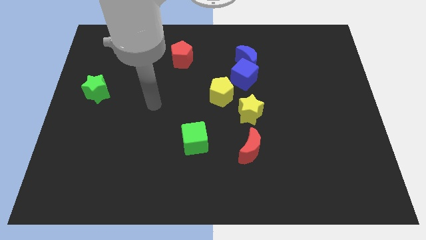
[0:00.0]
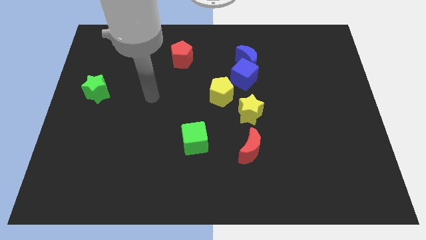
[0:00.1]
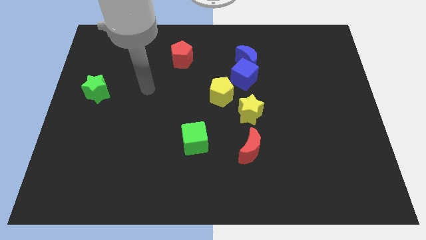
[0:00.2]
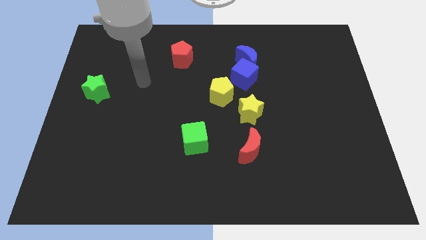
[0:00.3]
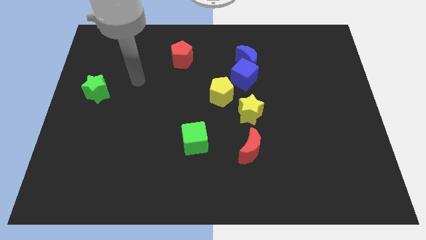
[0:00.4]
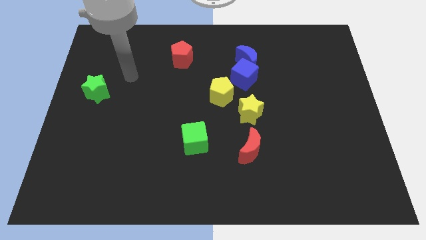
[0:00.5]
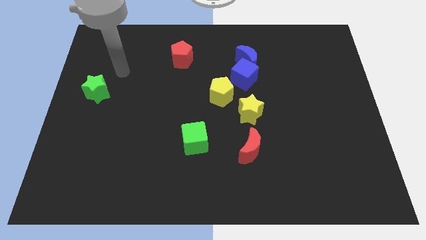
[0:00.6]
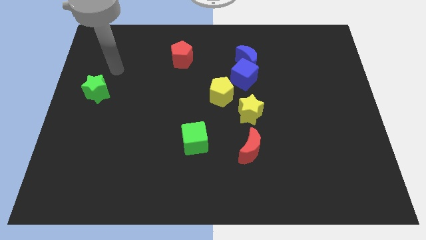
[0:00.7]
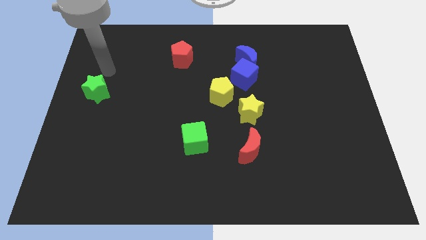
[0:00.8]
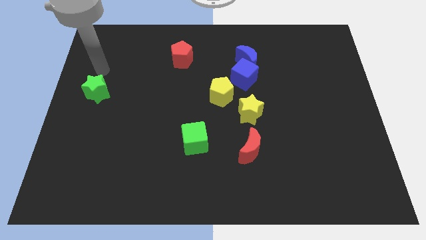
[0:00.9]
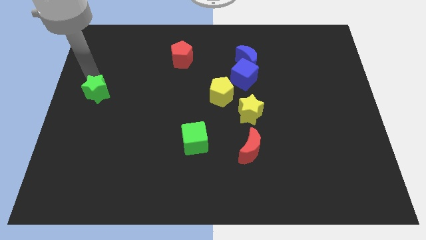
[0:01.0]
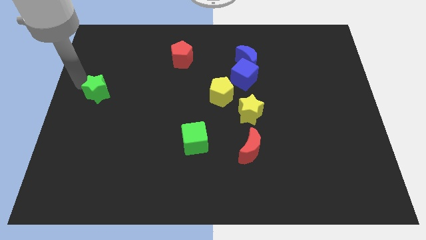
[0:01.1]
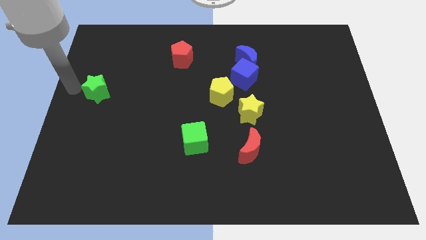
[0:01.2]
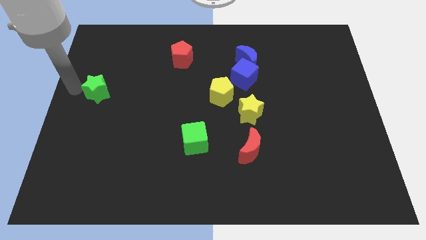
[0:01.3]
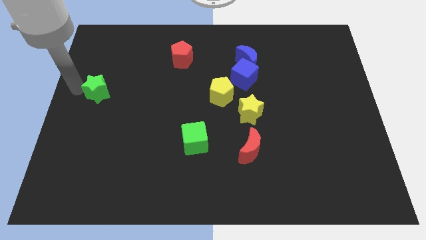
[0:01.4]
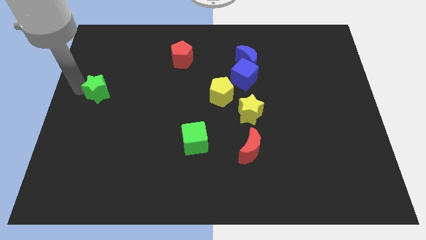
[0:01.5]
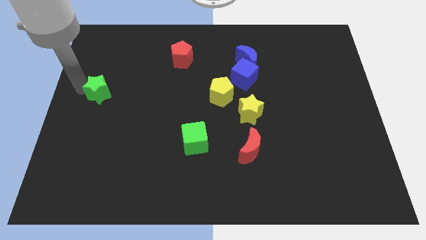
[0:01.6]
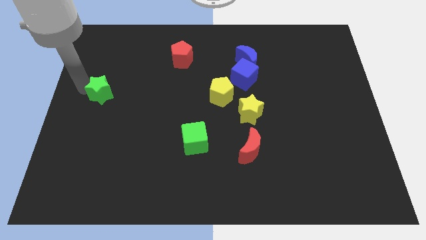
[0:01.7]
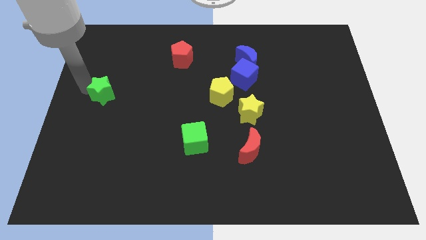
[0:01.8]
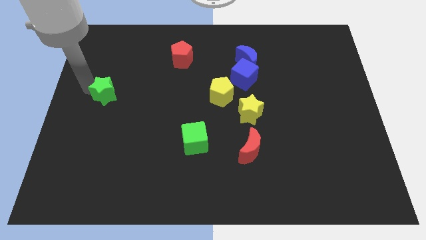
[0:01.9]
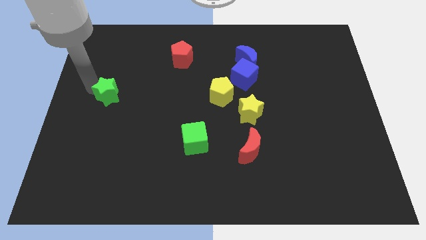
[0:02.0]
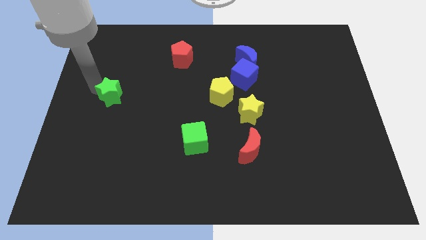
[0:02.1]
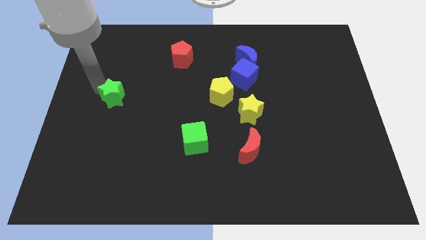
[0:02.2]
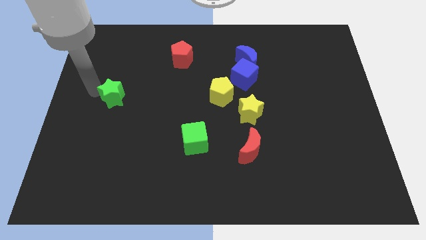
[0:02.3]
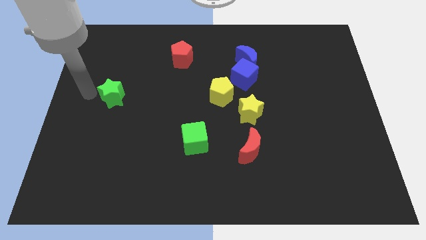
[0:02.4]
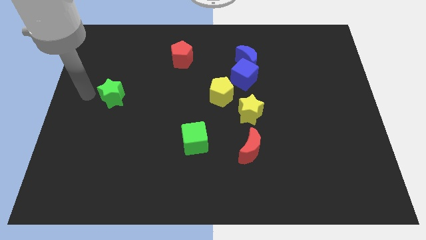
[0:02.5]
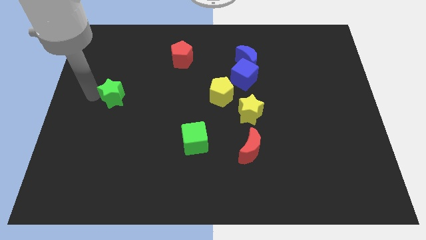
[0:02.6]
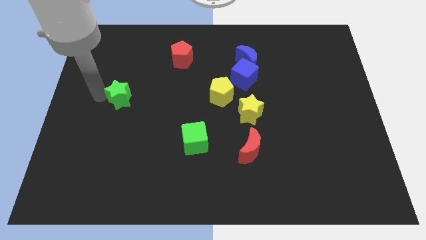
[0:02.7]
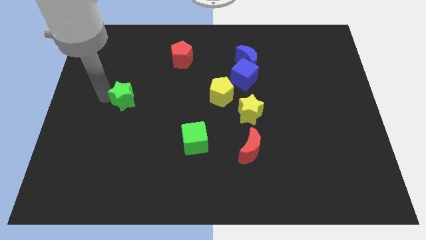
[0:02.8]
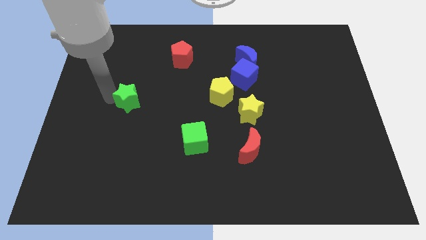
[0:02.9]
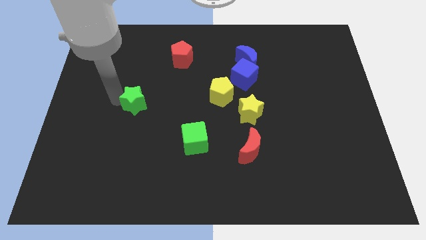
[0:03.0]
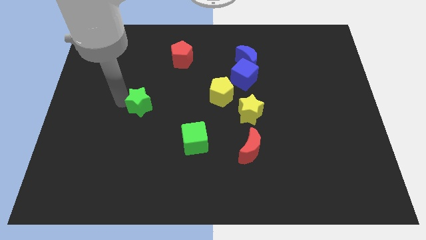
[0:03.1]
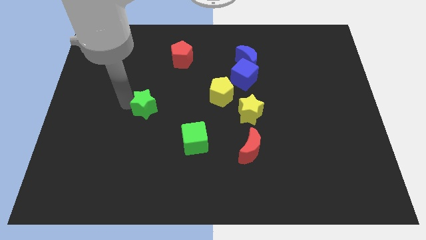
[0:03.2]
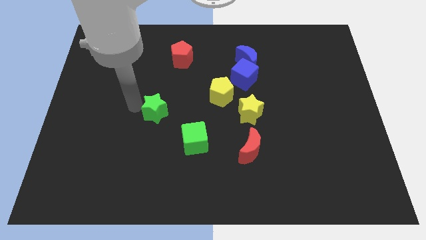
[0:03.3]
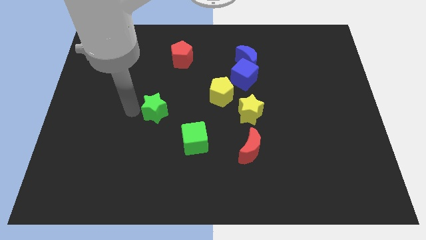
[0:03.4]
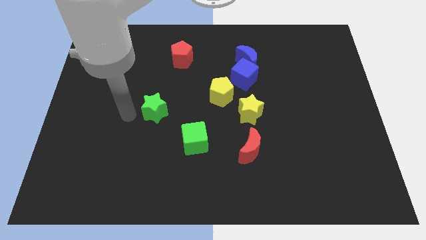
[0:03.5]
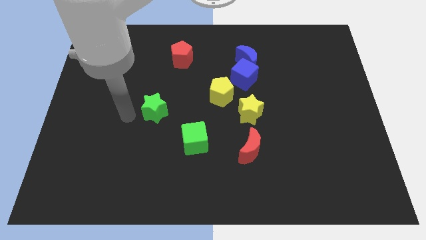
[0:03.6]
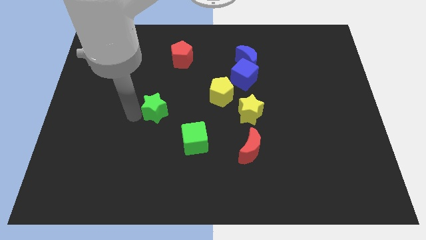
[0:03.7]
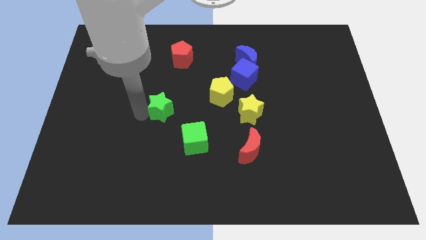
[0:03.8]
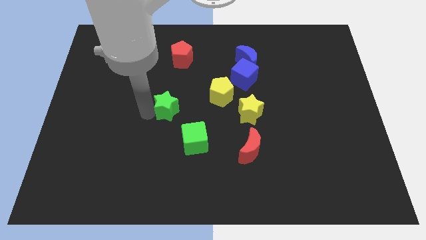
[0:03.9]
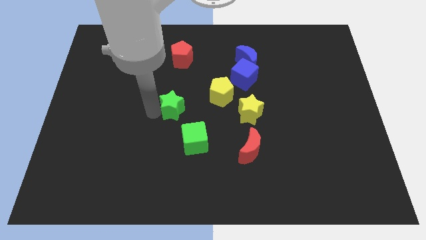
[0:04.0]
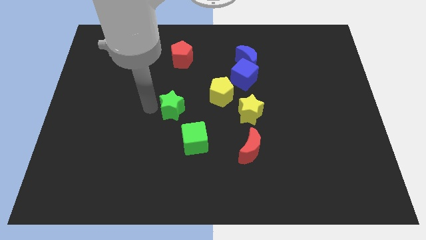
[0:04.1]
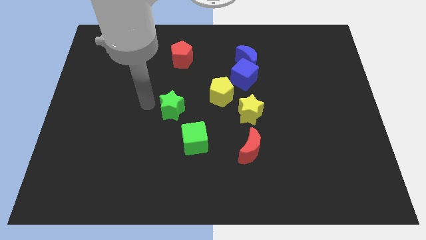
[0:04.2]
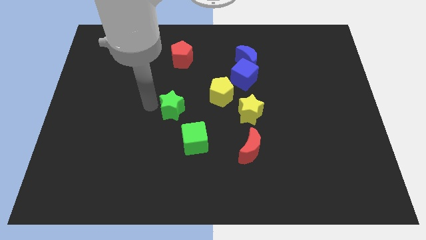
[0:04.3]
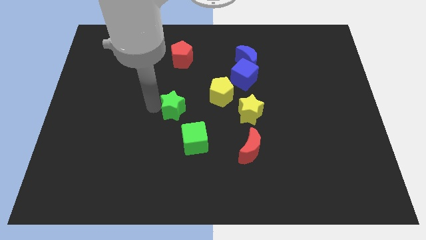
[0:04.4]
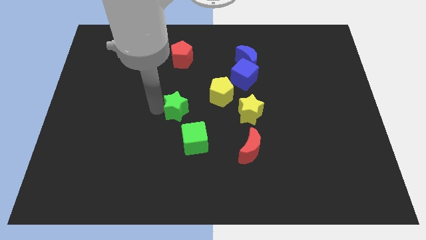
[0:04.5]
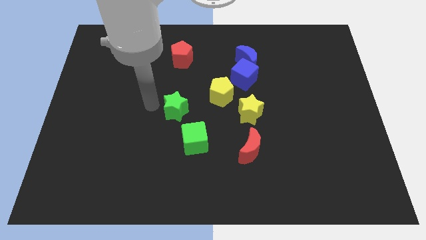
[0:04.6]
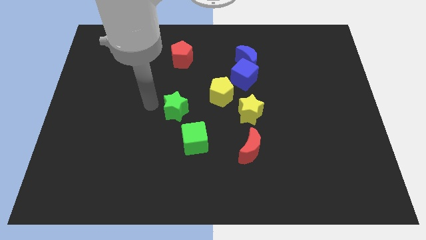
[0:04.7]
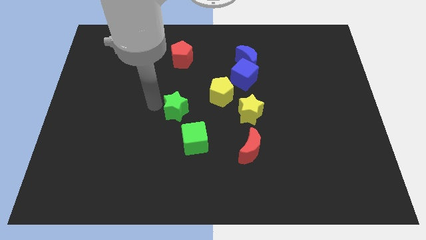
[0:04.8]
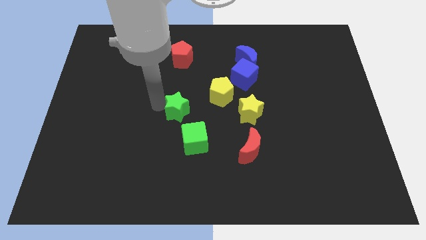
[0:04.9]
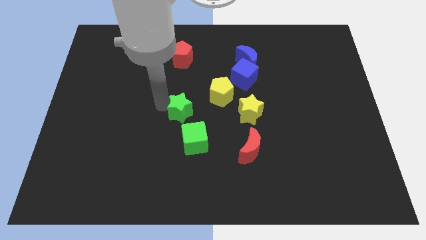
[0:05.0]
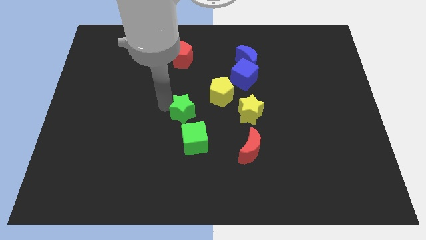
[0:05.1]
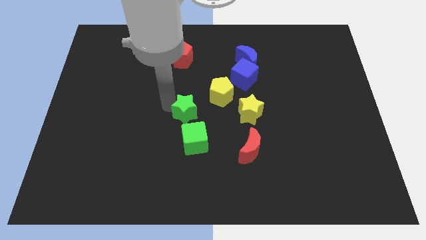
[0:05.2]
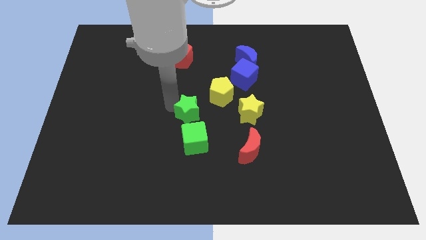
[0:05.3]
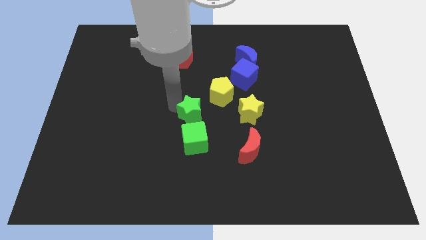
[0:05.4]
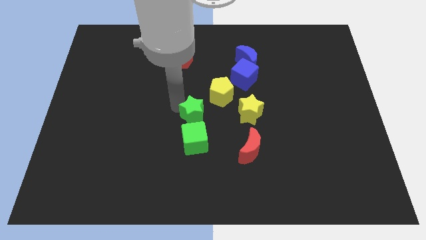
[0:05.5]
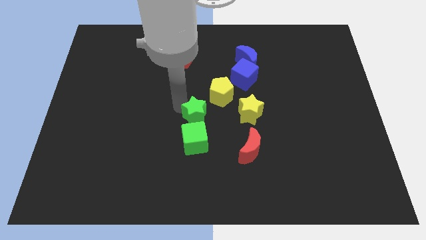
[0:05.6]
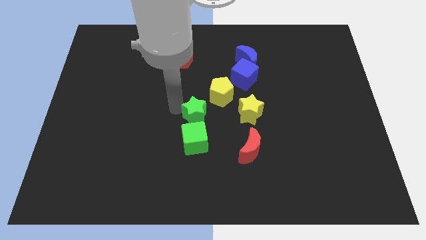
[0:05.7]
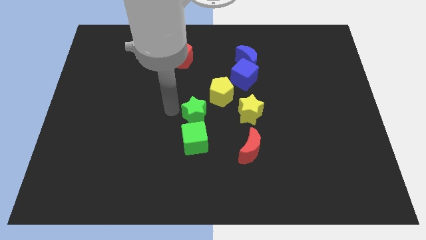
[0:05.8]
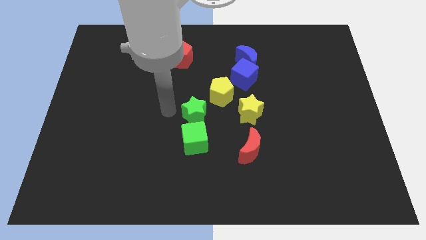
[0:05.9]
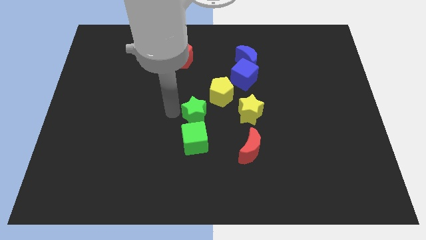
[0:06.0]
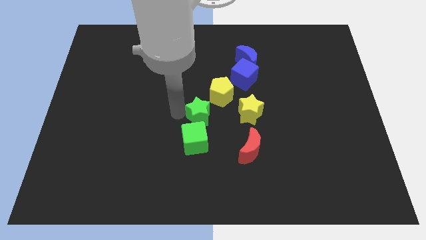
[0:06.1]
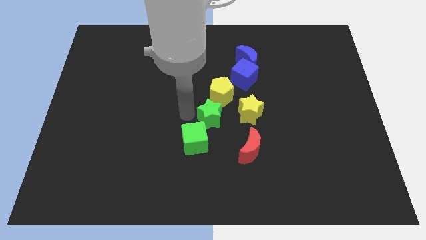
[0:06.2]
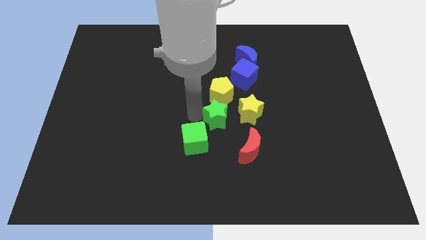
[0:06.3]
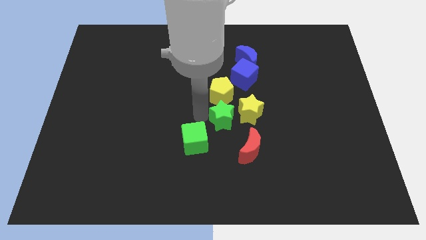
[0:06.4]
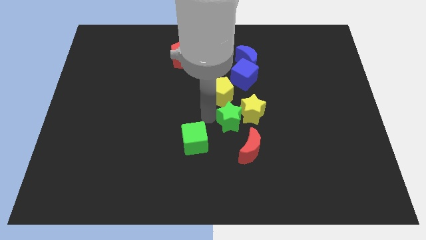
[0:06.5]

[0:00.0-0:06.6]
push the green star to the bottom side of the blue cube
